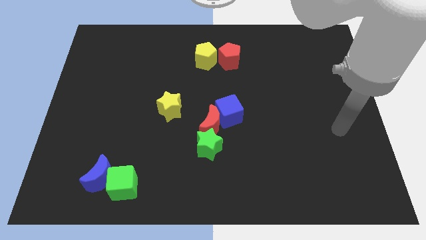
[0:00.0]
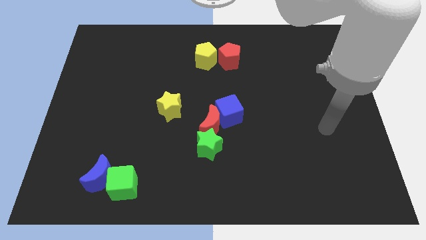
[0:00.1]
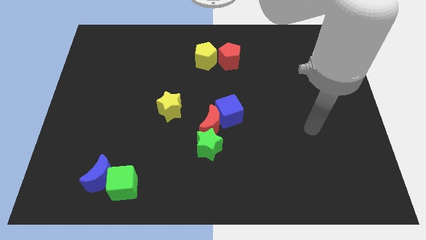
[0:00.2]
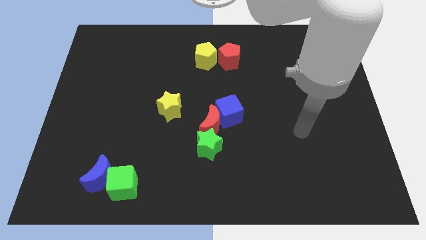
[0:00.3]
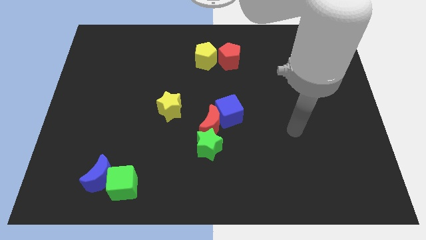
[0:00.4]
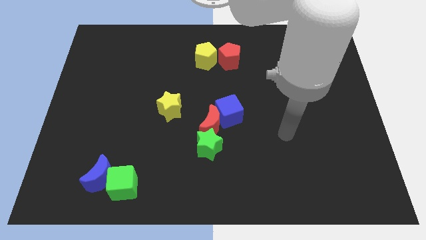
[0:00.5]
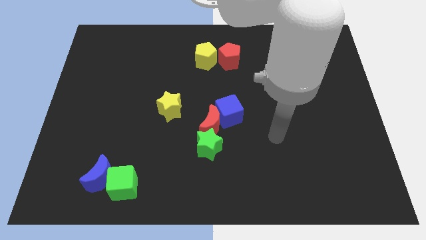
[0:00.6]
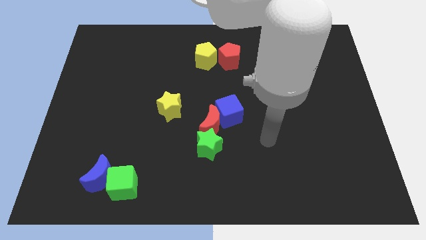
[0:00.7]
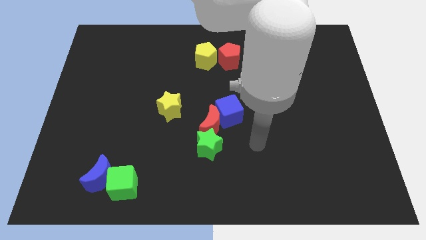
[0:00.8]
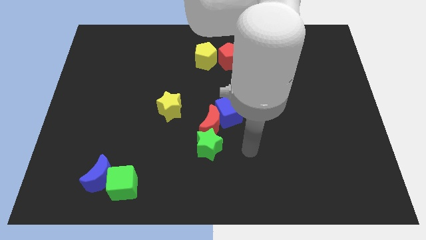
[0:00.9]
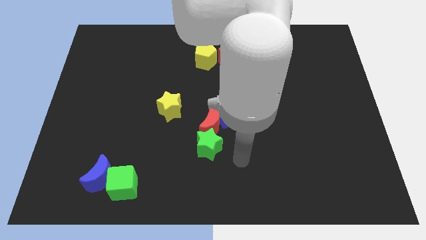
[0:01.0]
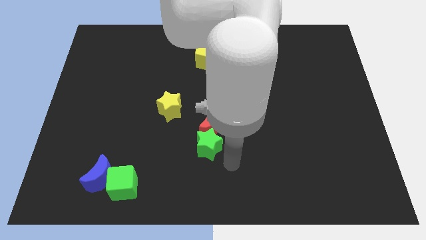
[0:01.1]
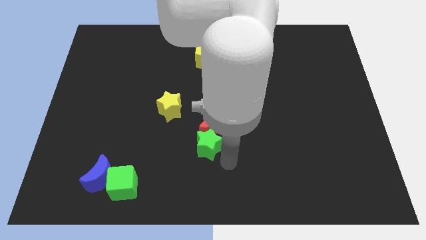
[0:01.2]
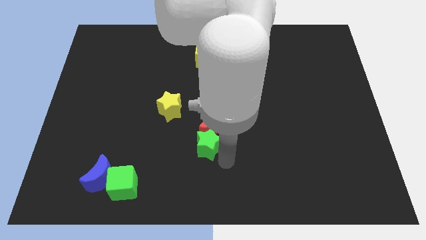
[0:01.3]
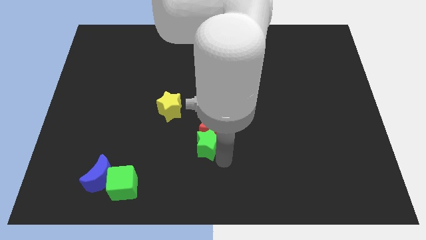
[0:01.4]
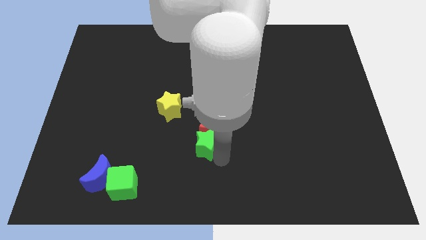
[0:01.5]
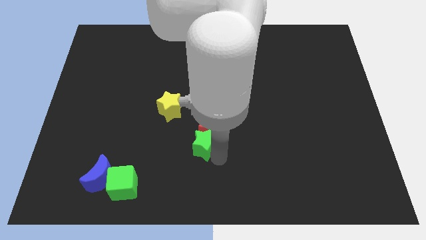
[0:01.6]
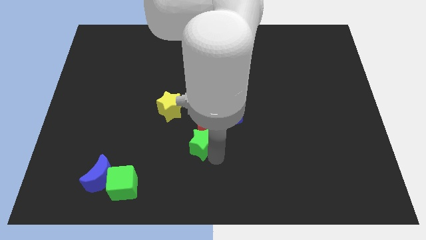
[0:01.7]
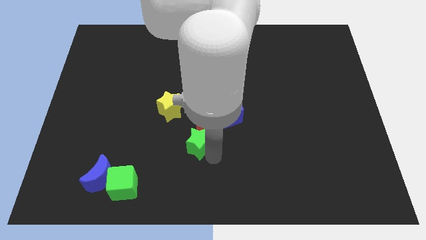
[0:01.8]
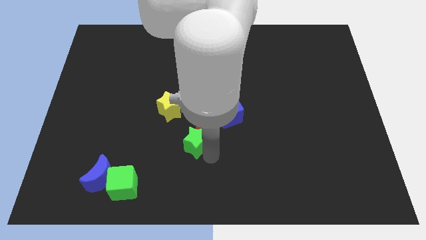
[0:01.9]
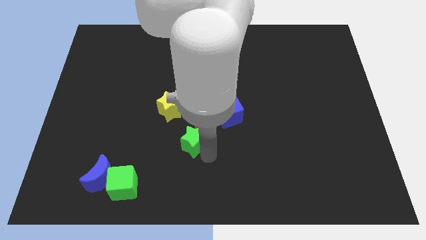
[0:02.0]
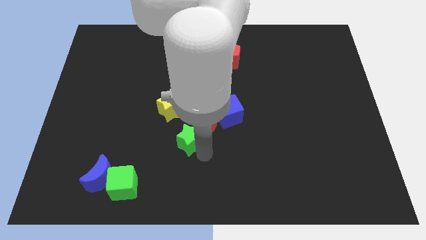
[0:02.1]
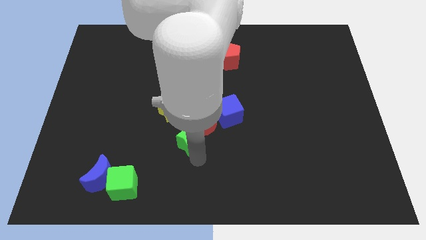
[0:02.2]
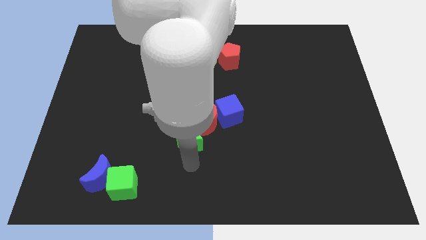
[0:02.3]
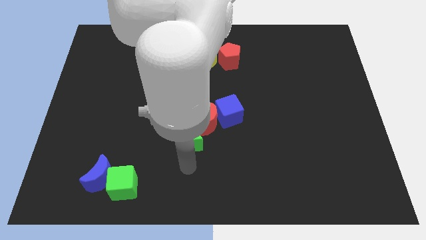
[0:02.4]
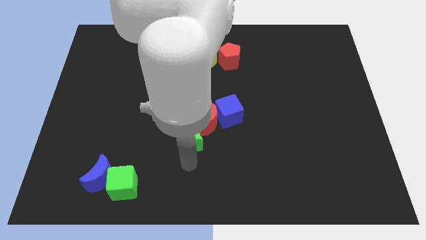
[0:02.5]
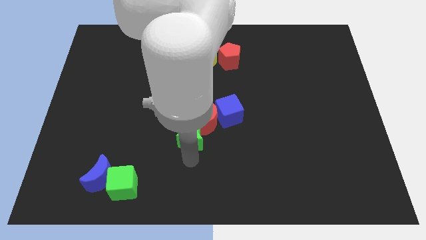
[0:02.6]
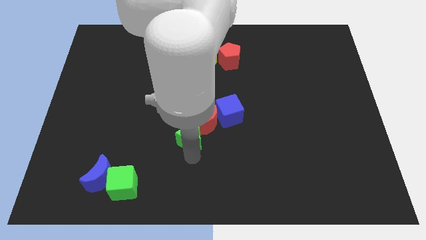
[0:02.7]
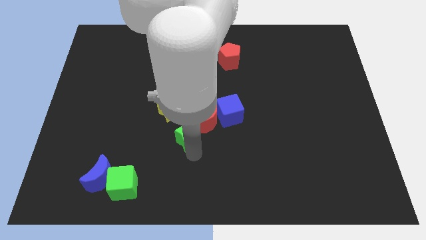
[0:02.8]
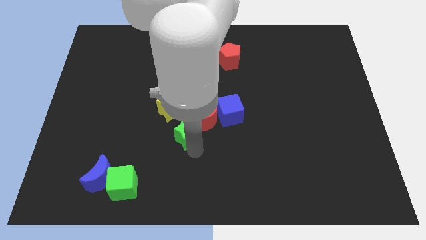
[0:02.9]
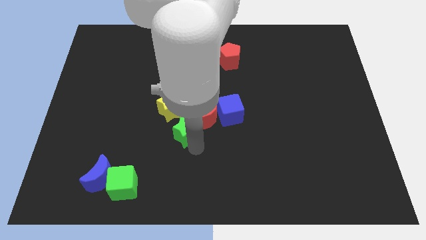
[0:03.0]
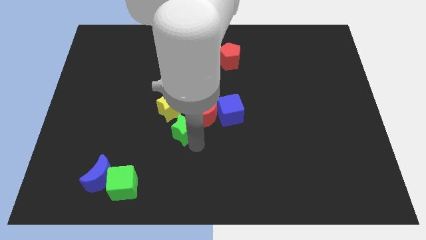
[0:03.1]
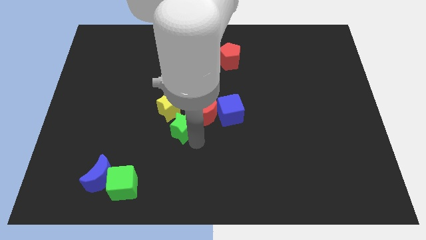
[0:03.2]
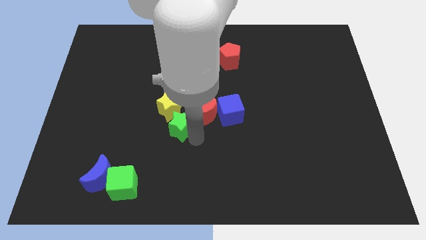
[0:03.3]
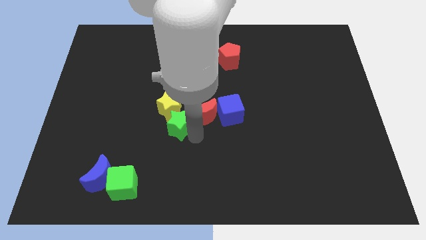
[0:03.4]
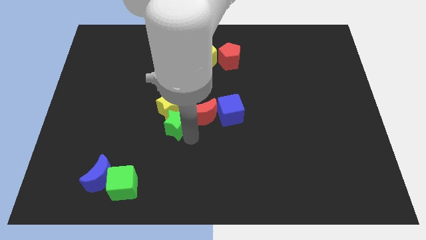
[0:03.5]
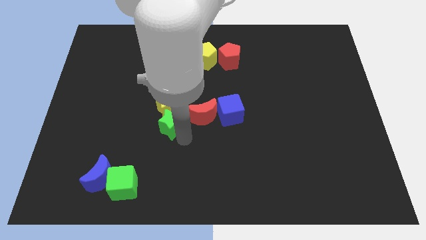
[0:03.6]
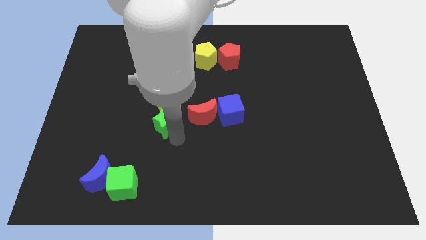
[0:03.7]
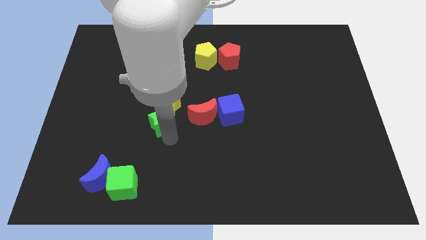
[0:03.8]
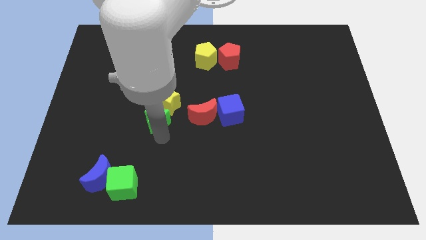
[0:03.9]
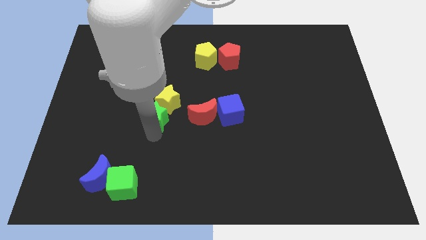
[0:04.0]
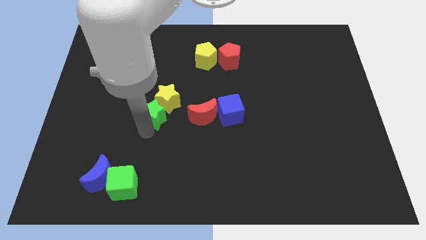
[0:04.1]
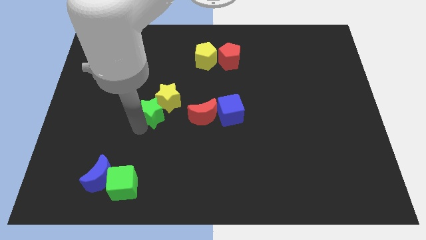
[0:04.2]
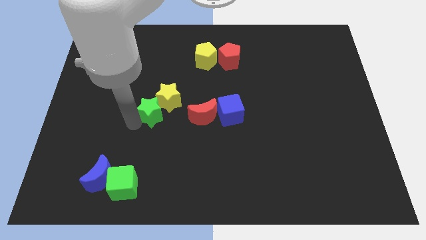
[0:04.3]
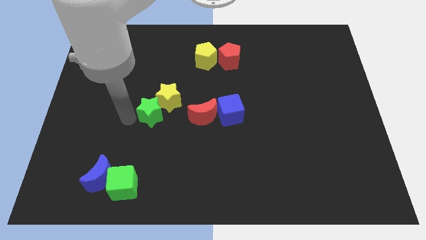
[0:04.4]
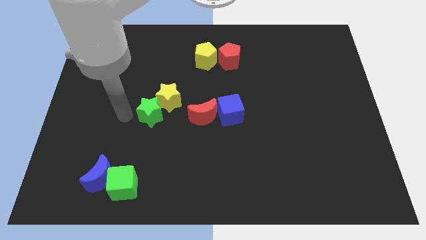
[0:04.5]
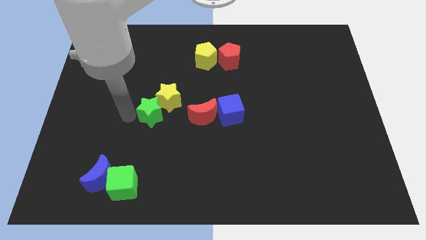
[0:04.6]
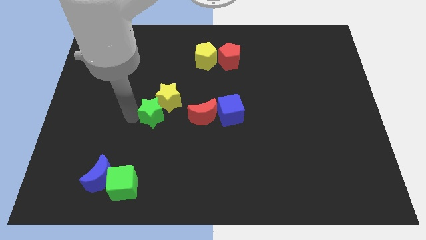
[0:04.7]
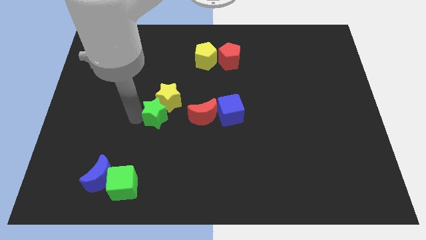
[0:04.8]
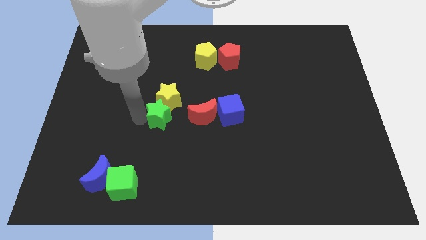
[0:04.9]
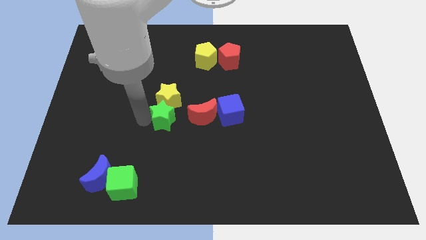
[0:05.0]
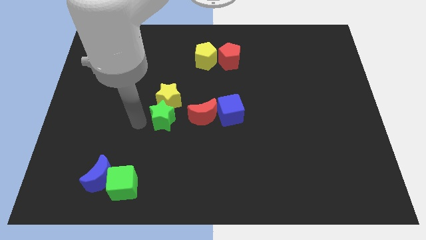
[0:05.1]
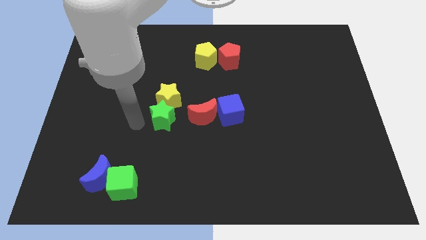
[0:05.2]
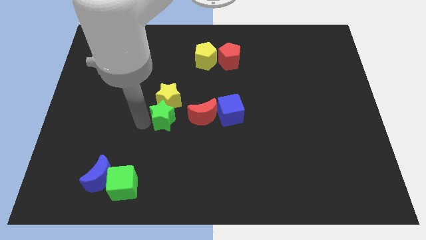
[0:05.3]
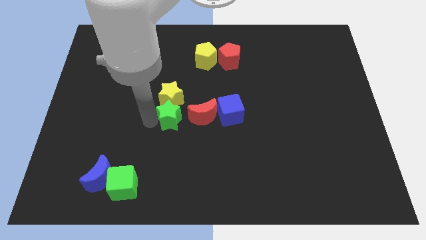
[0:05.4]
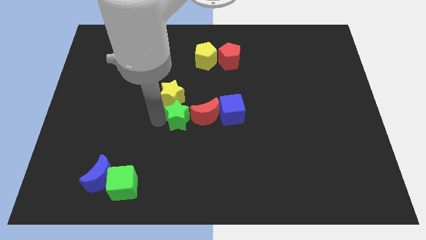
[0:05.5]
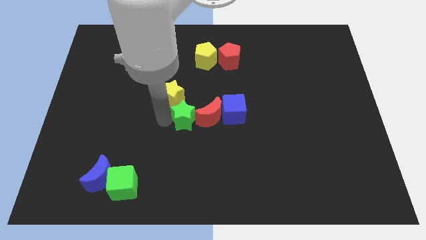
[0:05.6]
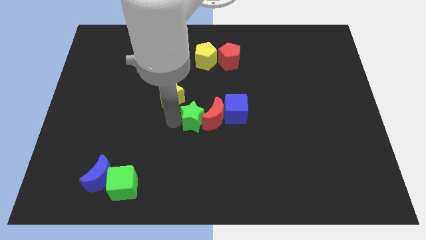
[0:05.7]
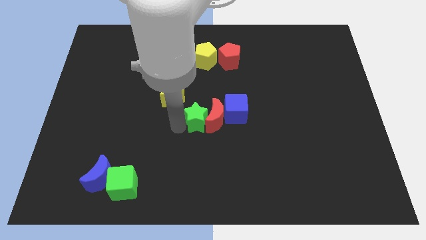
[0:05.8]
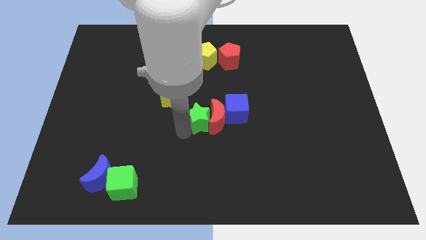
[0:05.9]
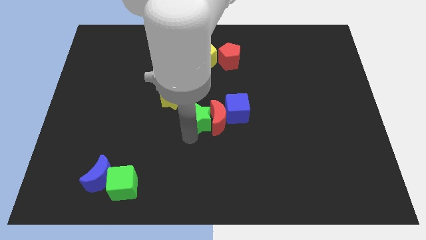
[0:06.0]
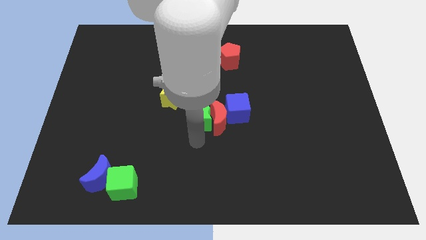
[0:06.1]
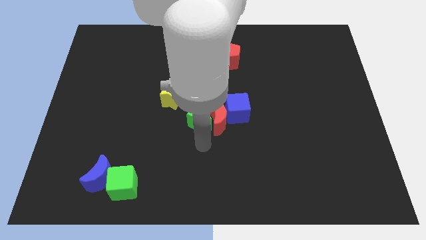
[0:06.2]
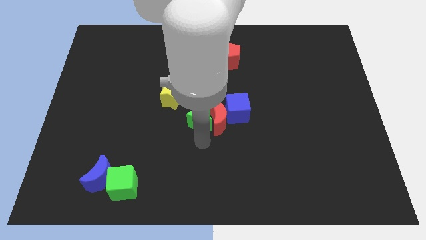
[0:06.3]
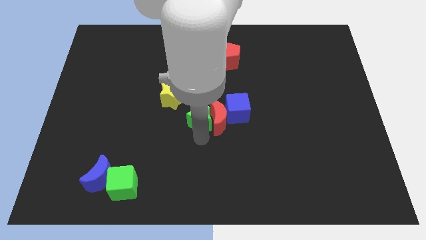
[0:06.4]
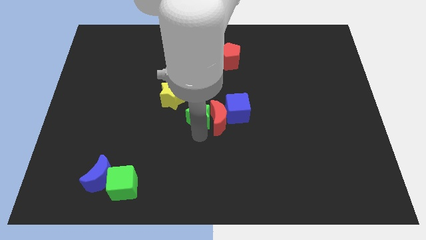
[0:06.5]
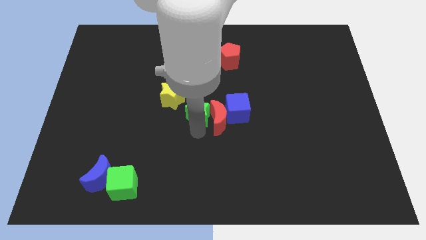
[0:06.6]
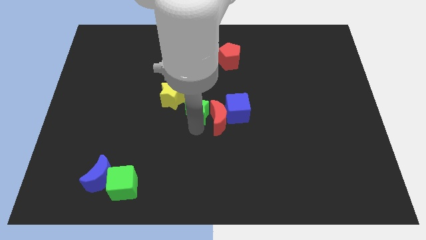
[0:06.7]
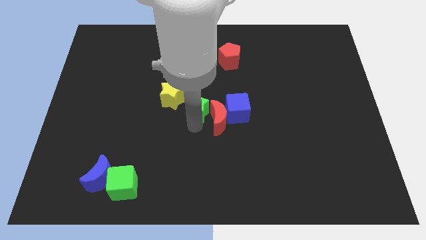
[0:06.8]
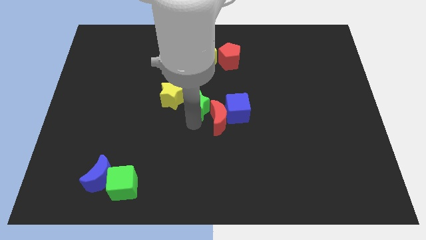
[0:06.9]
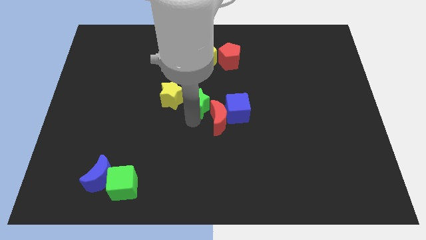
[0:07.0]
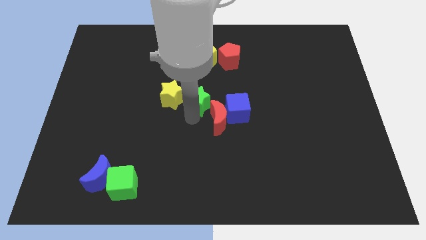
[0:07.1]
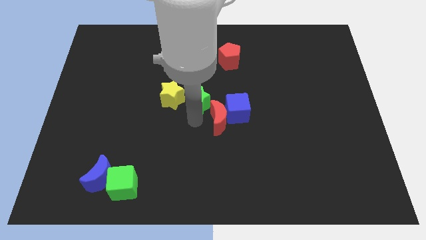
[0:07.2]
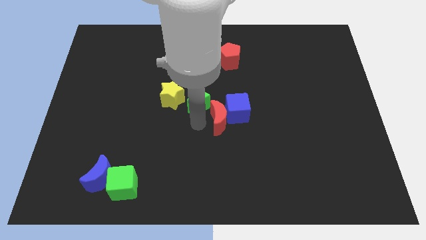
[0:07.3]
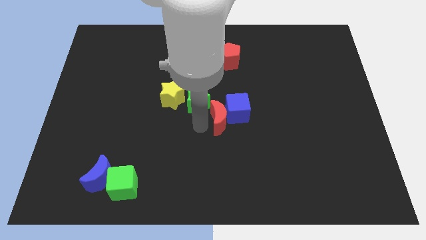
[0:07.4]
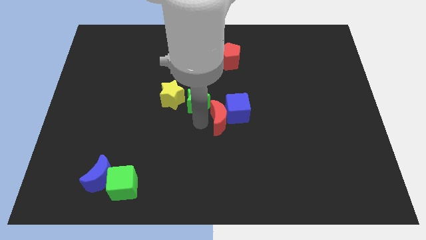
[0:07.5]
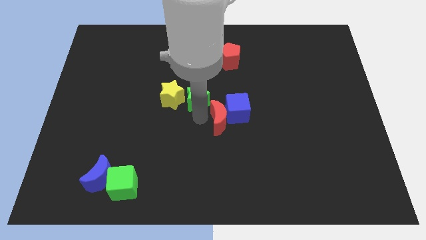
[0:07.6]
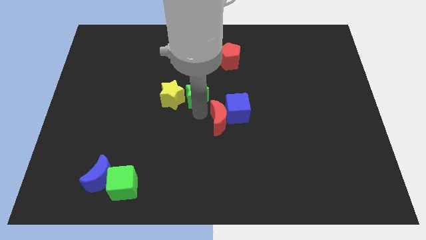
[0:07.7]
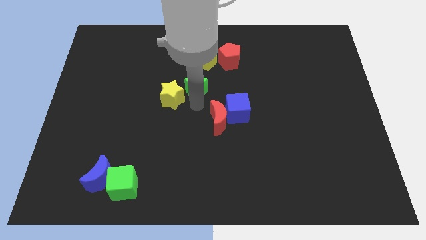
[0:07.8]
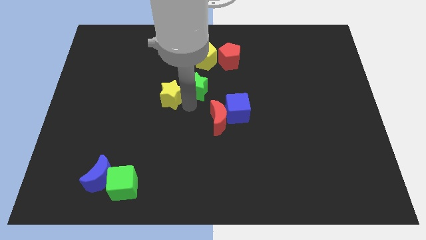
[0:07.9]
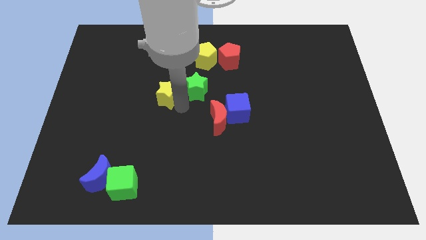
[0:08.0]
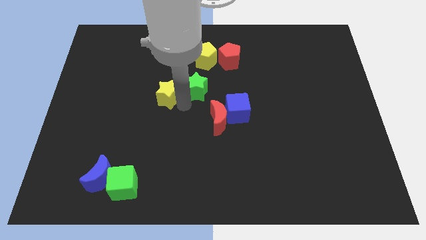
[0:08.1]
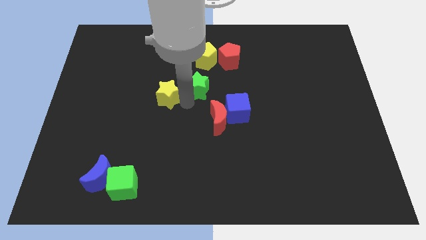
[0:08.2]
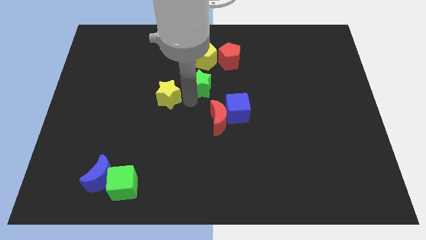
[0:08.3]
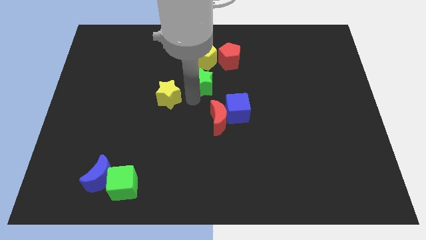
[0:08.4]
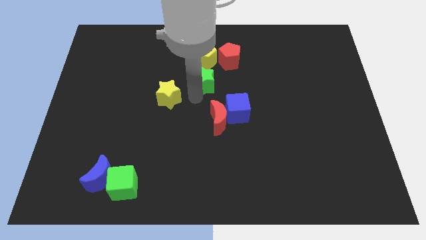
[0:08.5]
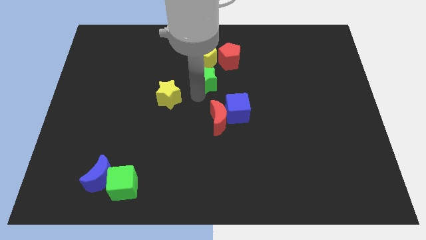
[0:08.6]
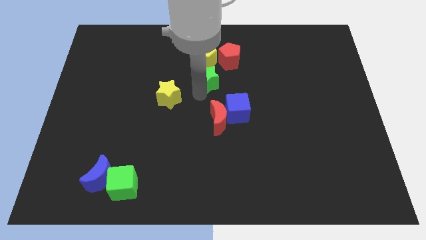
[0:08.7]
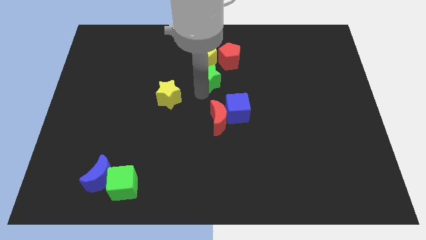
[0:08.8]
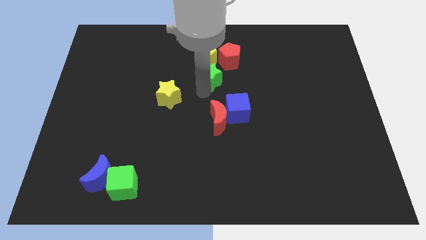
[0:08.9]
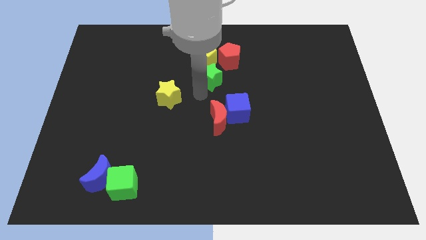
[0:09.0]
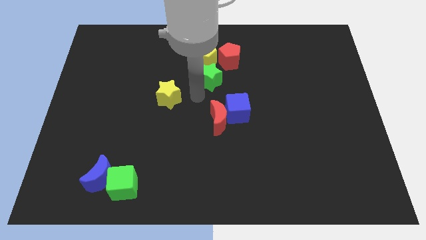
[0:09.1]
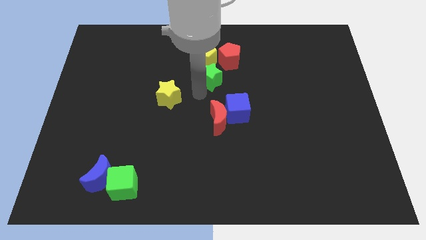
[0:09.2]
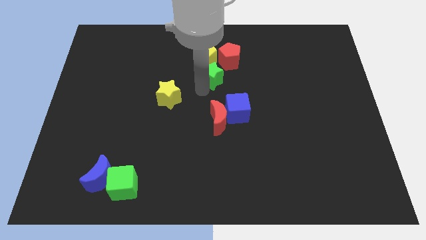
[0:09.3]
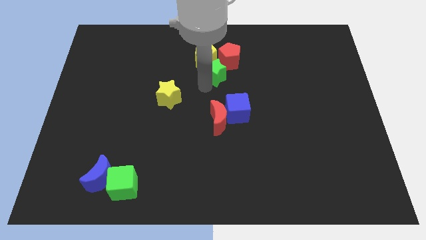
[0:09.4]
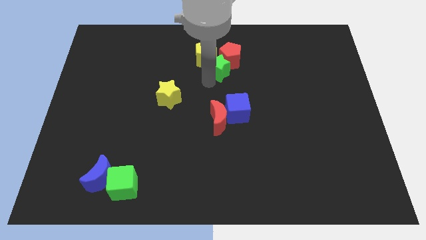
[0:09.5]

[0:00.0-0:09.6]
put the green star next to the red pentagon
